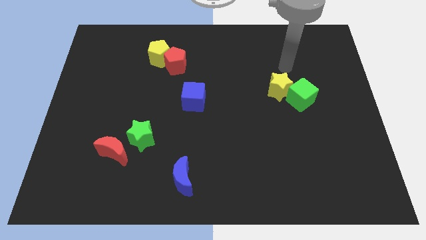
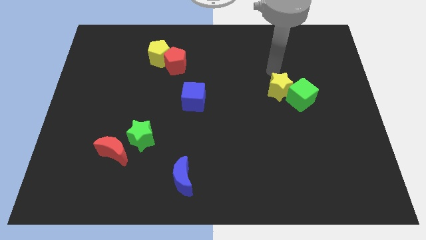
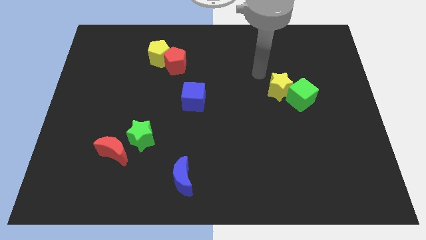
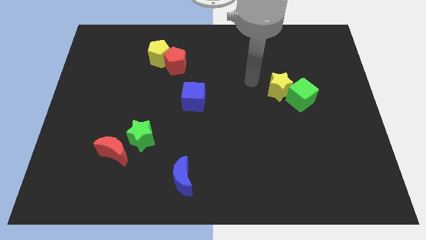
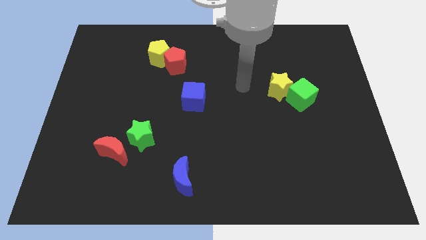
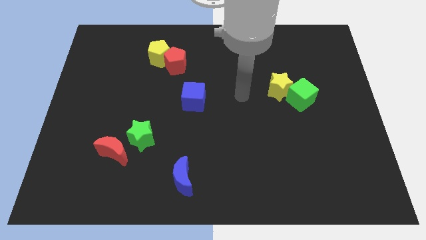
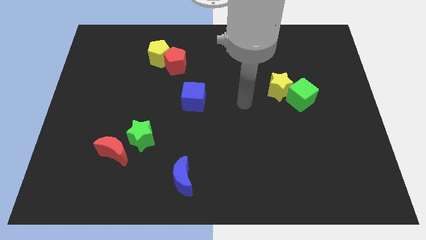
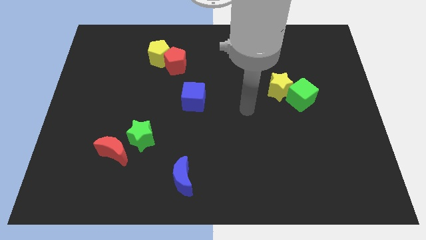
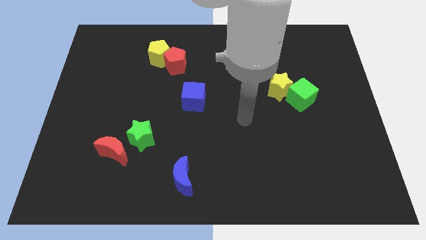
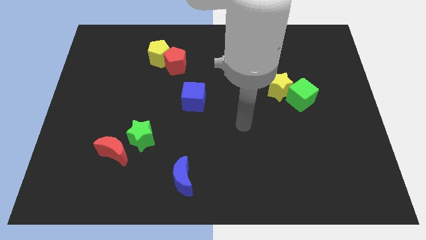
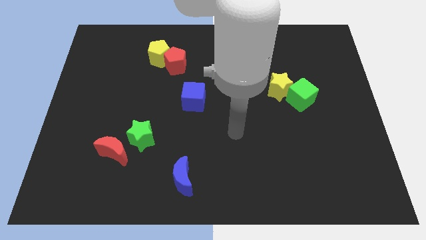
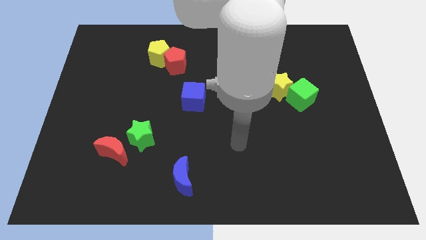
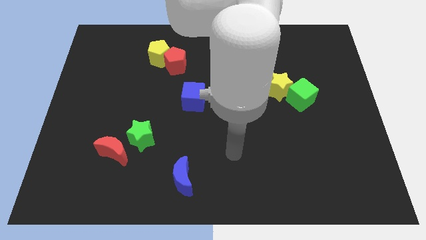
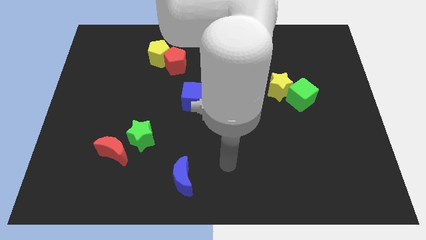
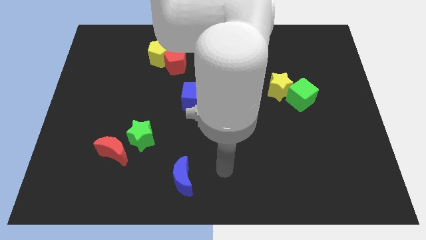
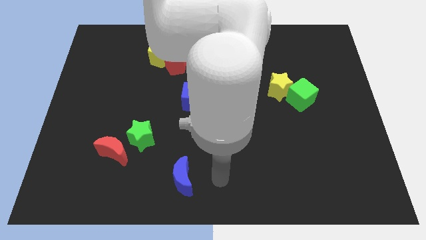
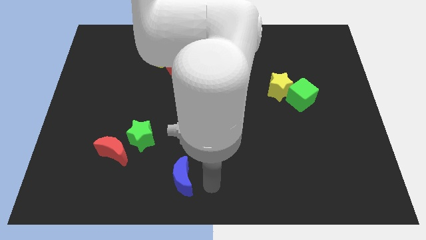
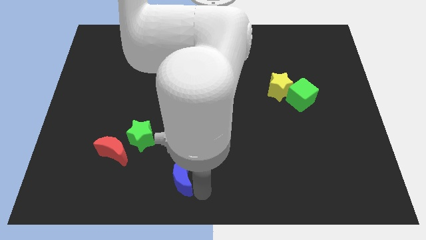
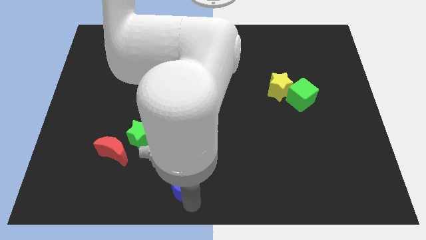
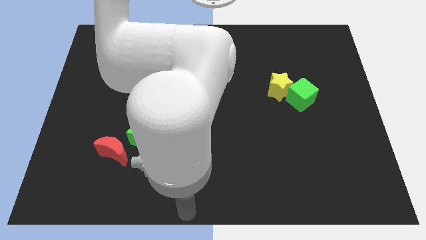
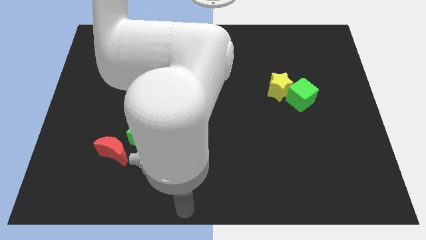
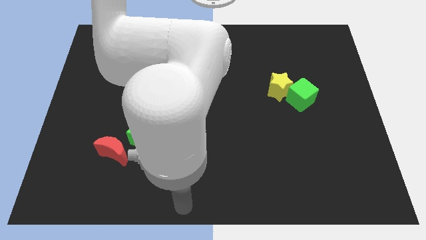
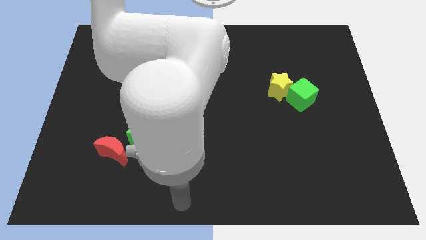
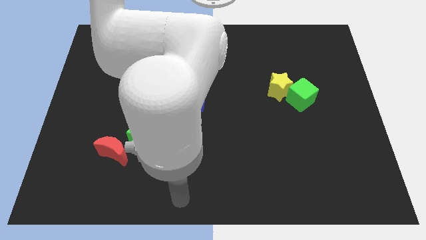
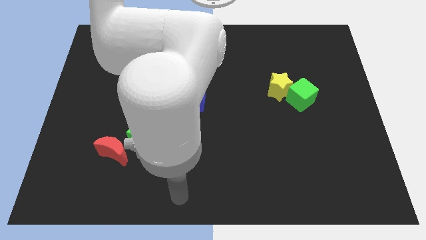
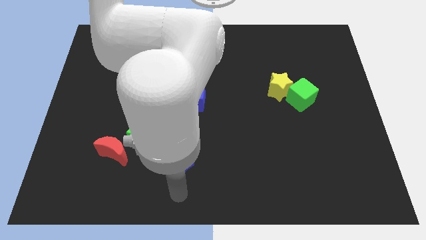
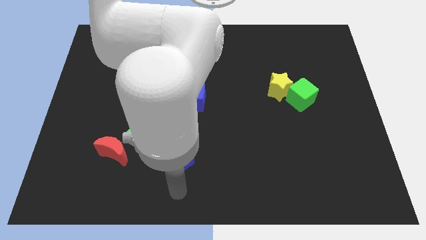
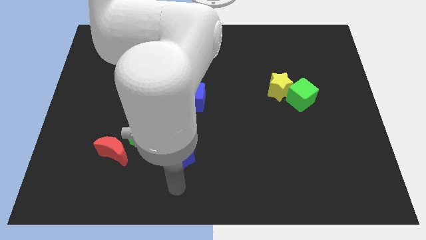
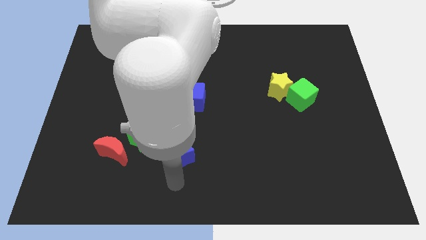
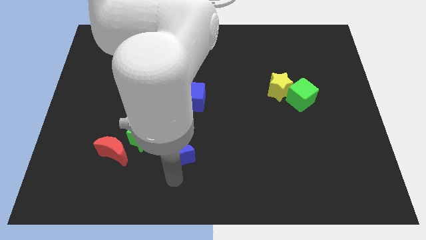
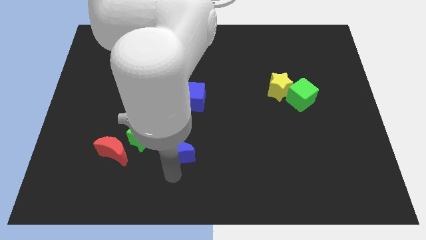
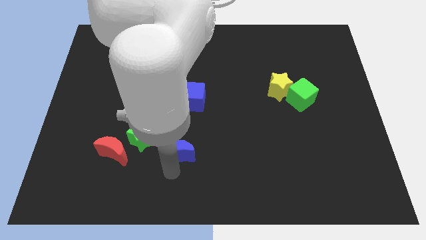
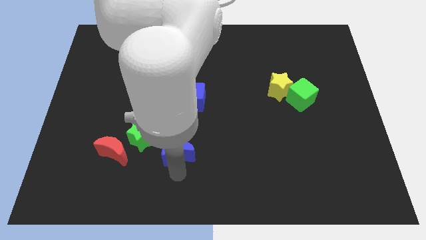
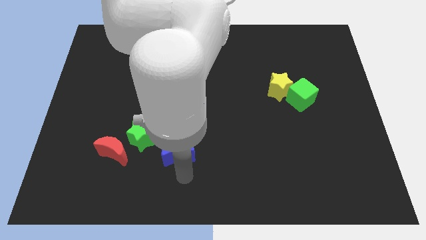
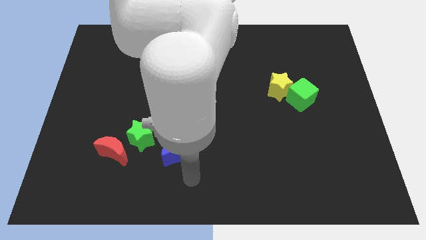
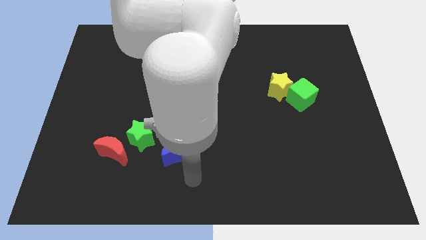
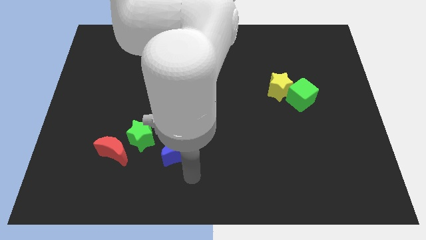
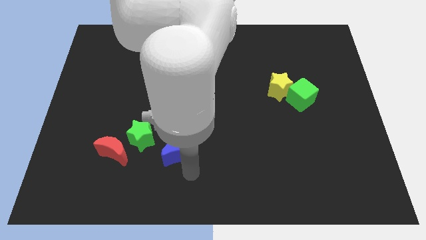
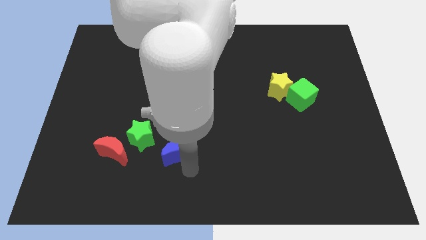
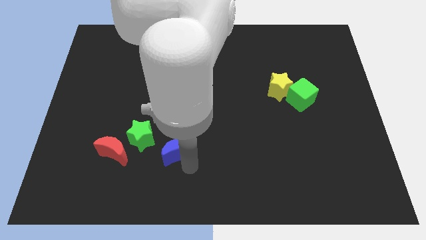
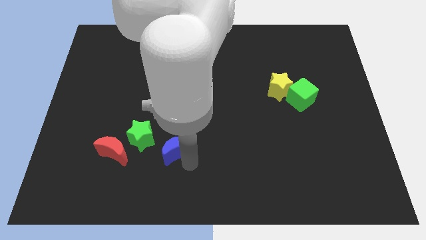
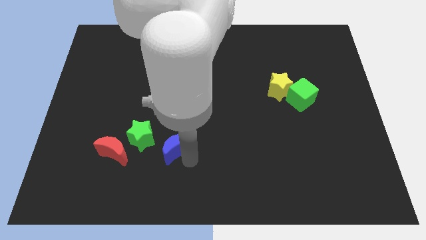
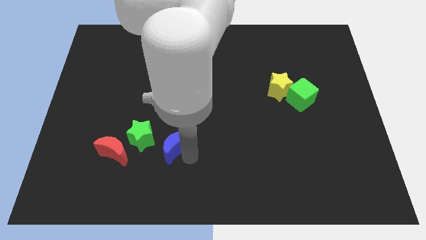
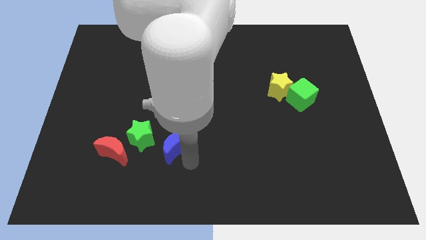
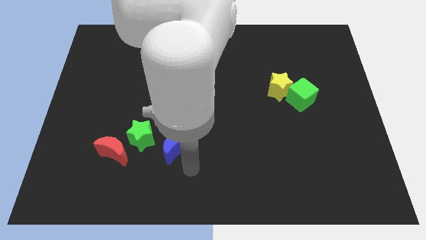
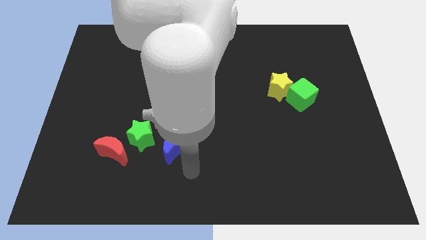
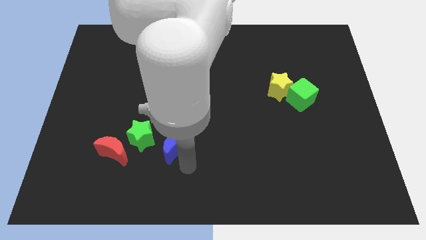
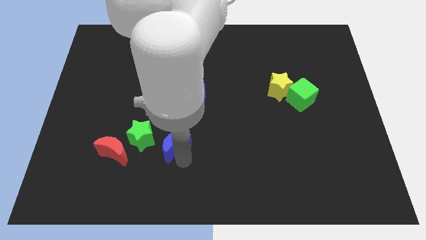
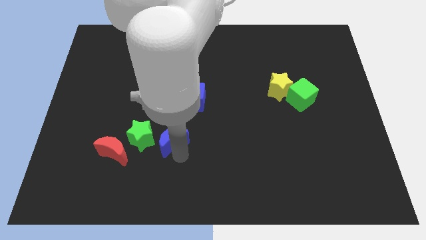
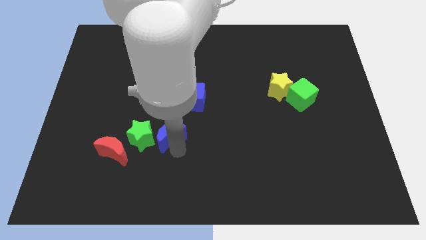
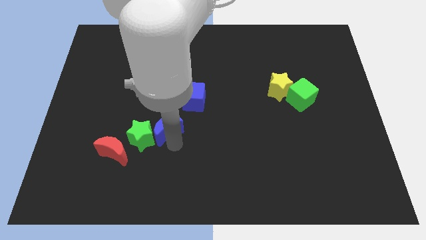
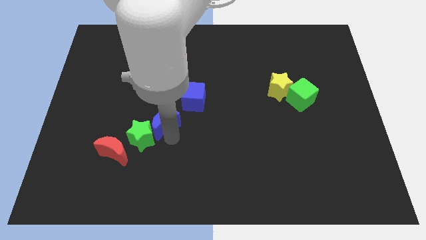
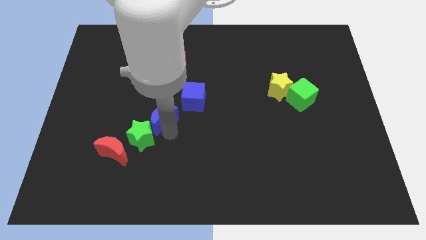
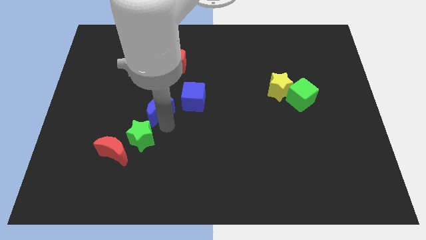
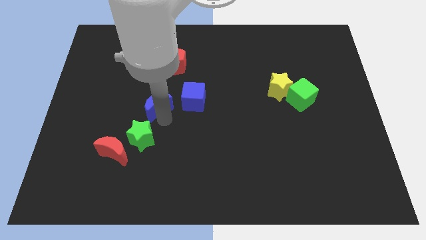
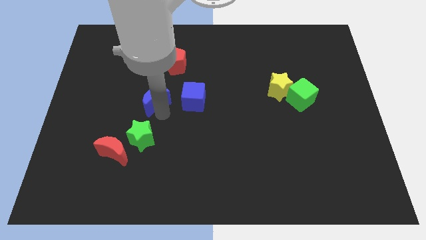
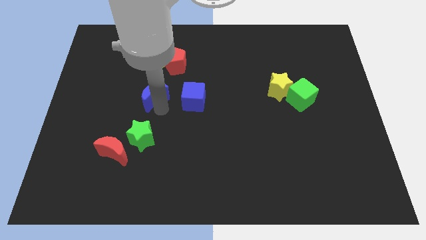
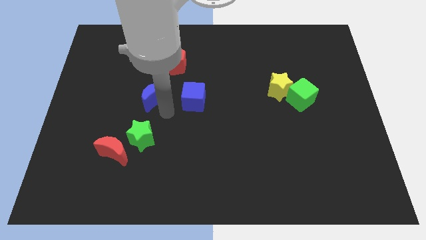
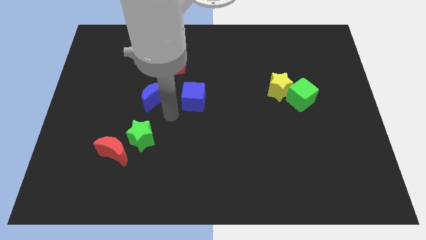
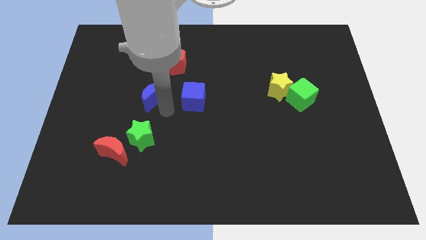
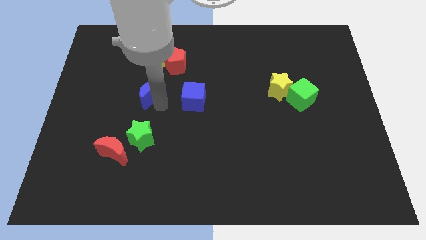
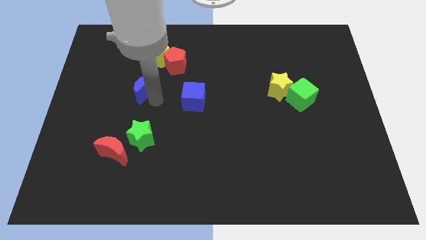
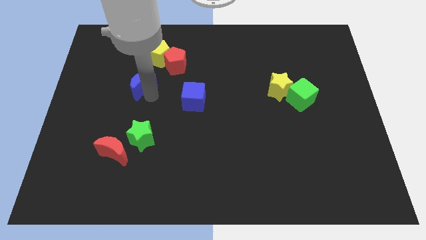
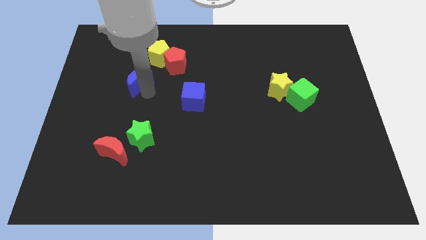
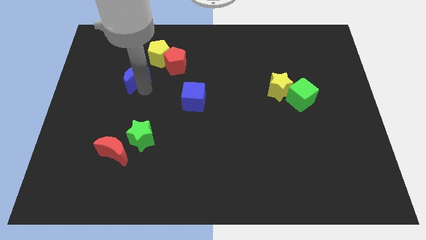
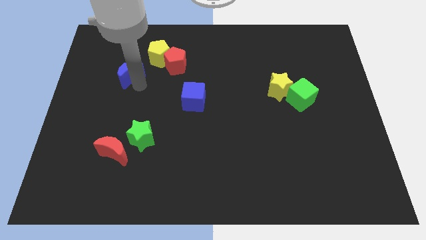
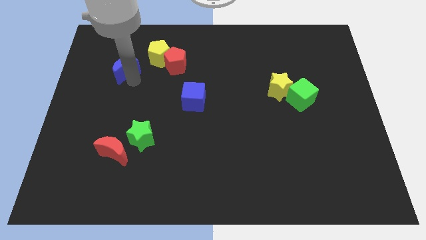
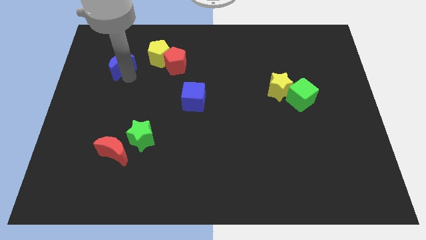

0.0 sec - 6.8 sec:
move the blue moon just left of the yellow pentagon
